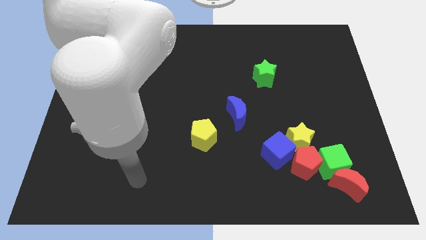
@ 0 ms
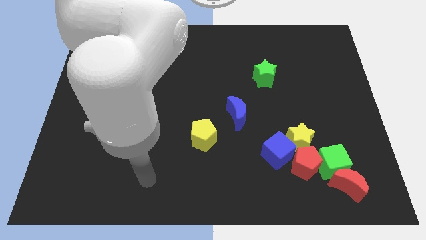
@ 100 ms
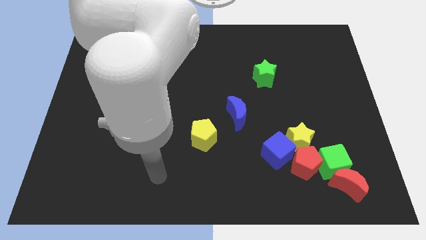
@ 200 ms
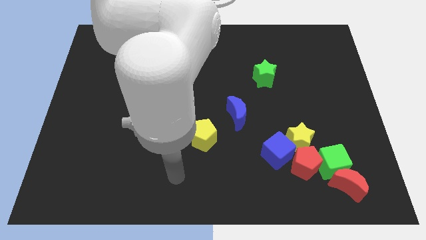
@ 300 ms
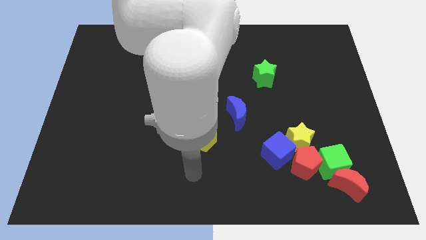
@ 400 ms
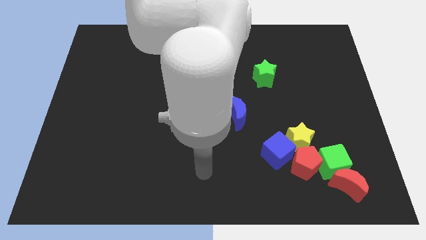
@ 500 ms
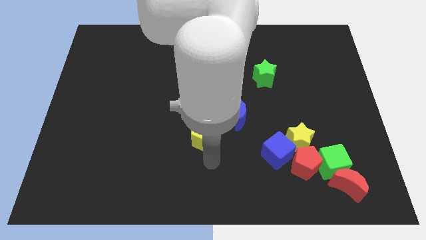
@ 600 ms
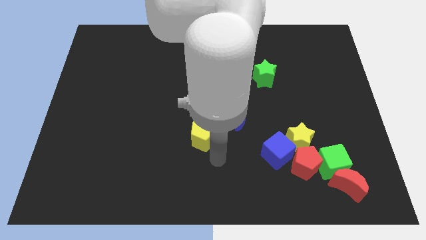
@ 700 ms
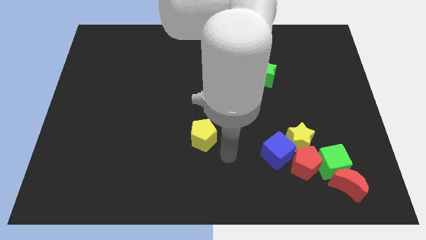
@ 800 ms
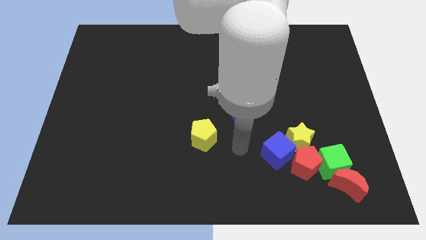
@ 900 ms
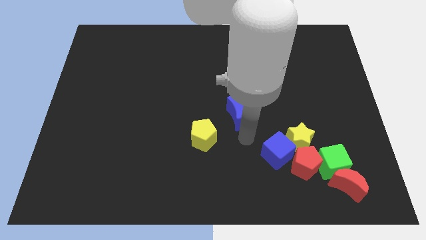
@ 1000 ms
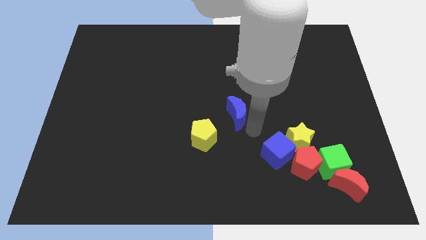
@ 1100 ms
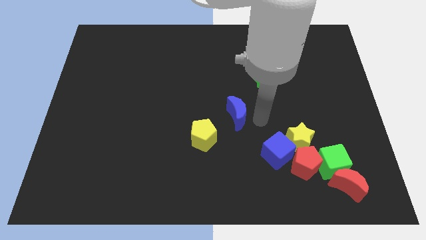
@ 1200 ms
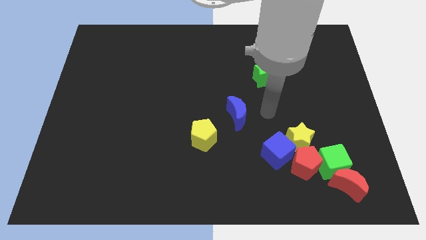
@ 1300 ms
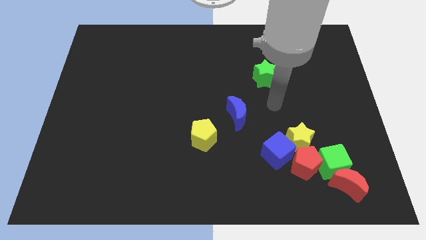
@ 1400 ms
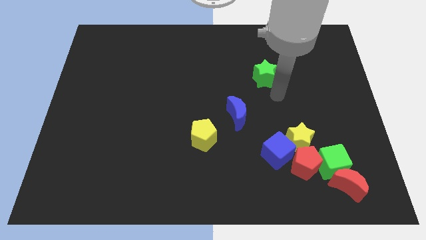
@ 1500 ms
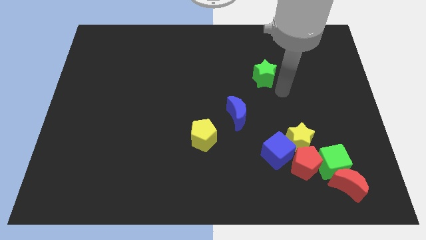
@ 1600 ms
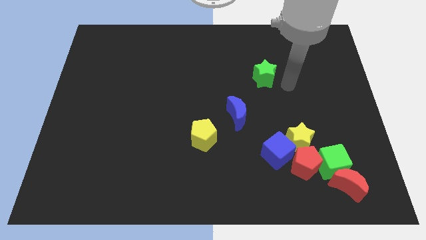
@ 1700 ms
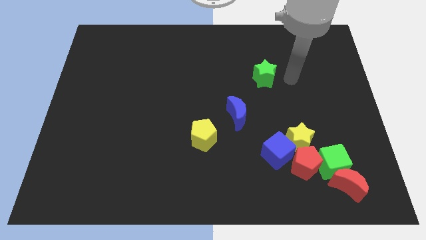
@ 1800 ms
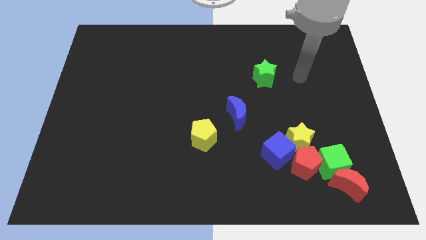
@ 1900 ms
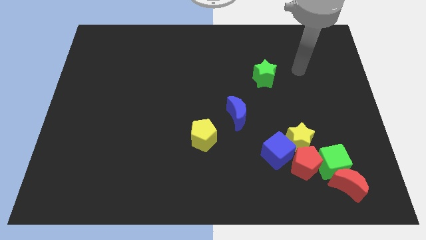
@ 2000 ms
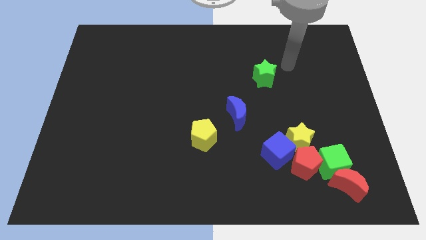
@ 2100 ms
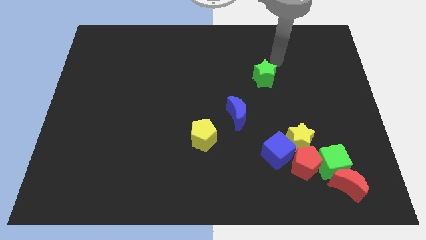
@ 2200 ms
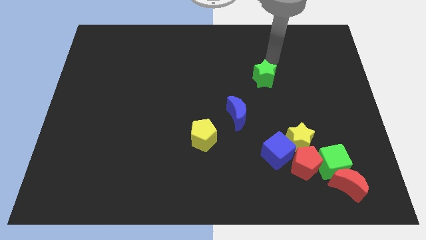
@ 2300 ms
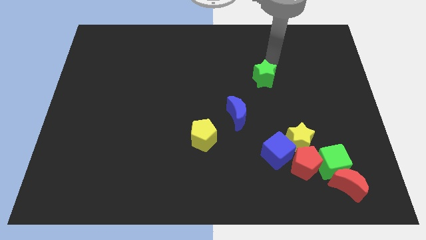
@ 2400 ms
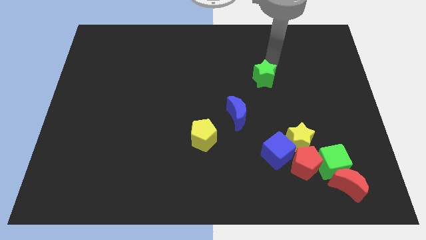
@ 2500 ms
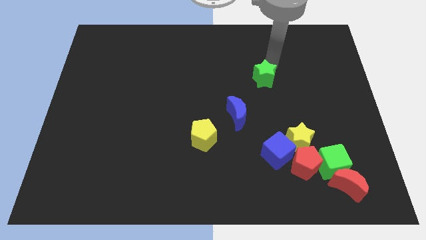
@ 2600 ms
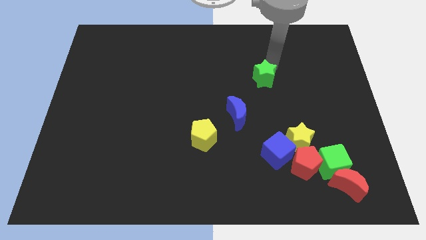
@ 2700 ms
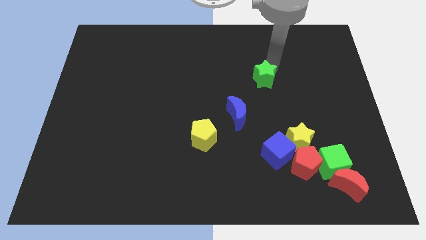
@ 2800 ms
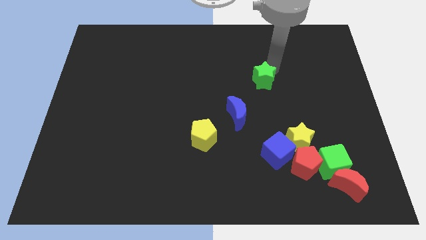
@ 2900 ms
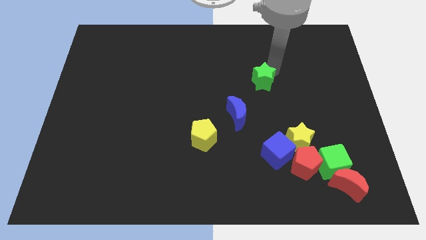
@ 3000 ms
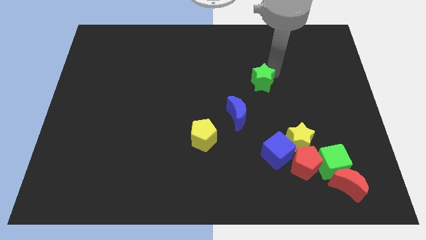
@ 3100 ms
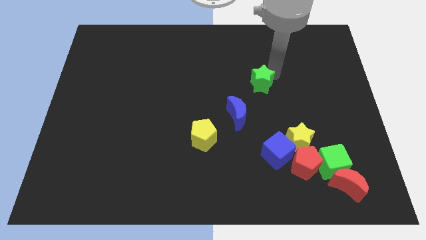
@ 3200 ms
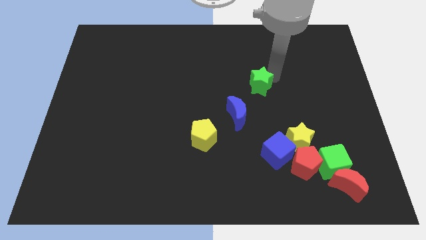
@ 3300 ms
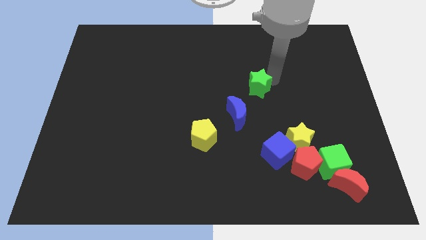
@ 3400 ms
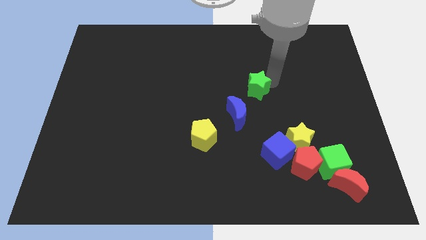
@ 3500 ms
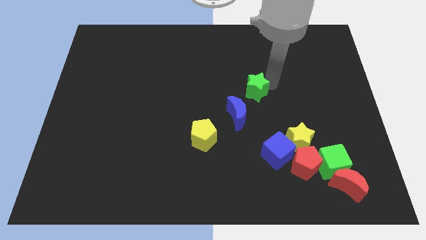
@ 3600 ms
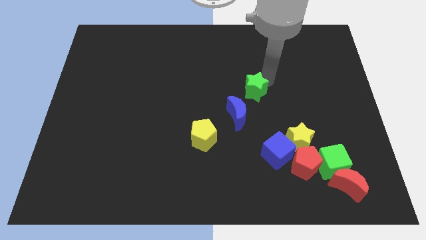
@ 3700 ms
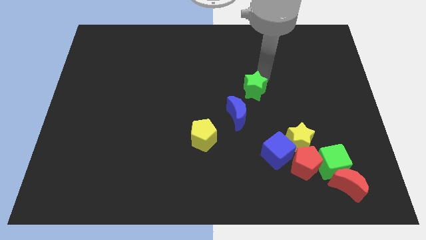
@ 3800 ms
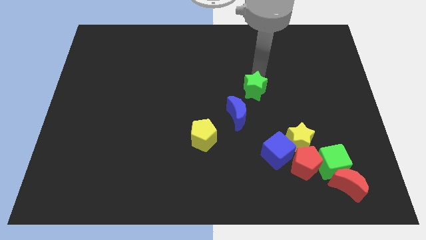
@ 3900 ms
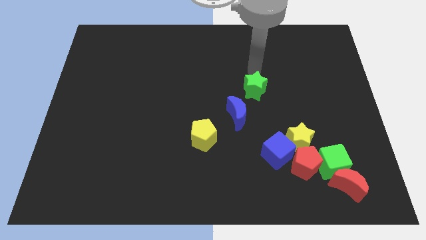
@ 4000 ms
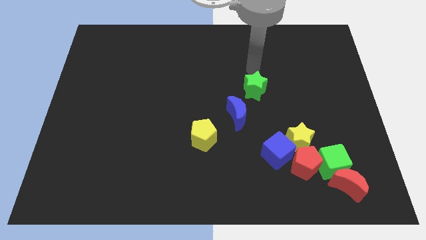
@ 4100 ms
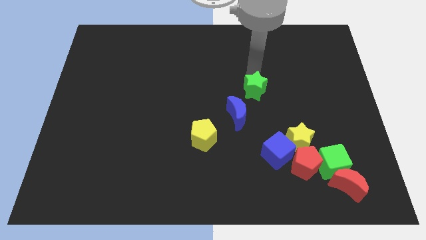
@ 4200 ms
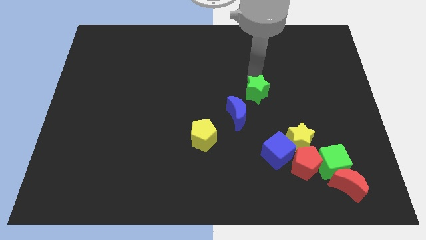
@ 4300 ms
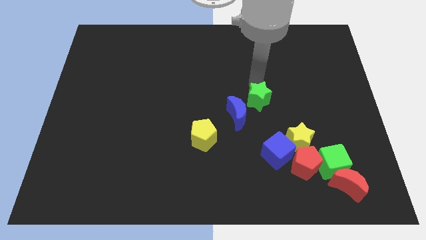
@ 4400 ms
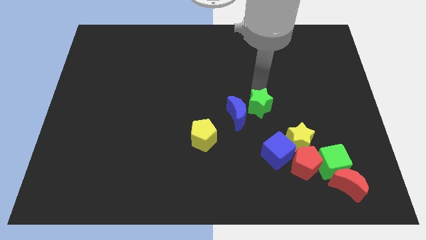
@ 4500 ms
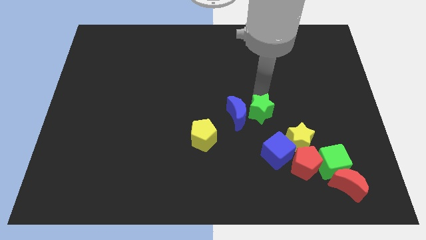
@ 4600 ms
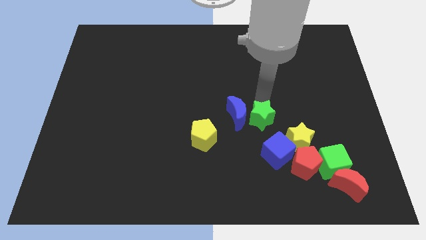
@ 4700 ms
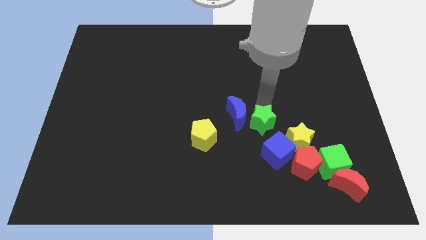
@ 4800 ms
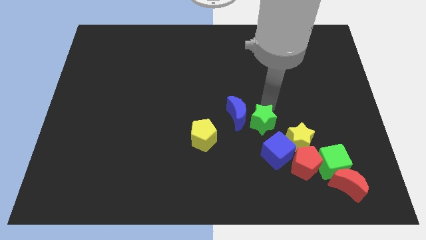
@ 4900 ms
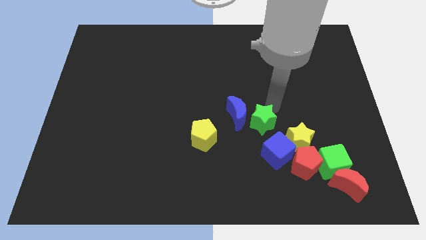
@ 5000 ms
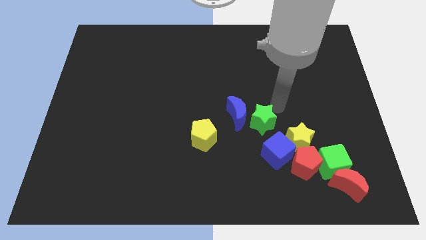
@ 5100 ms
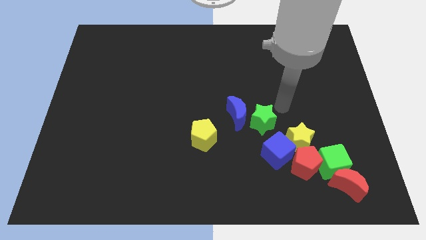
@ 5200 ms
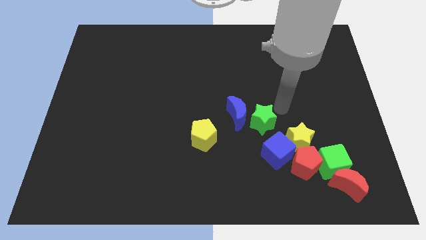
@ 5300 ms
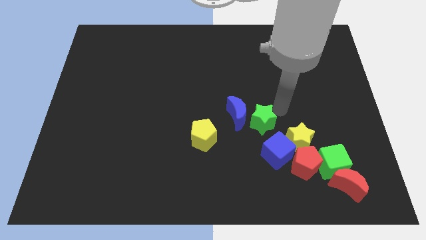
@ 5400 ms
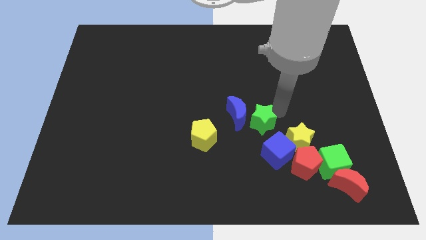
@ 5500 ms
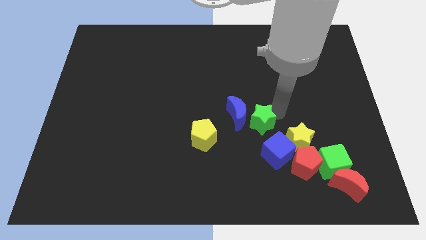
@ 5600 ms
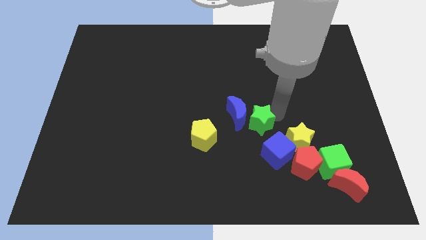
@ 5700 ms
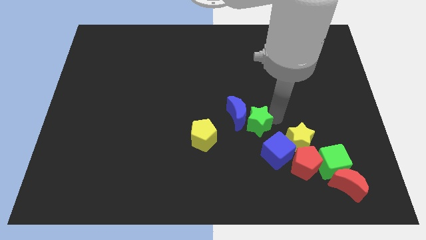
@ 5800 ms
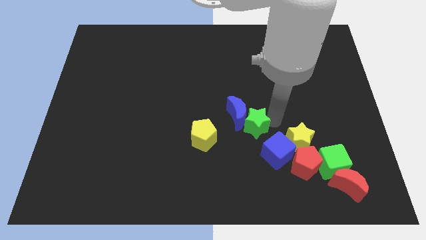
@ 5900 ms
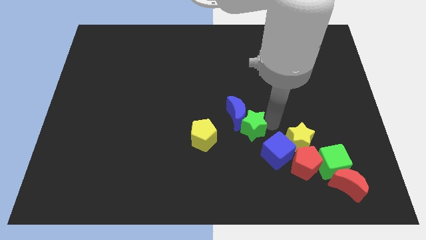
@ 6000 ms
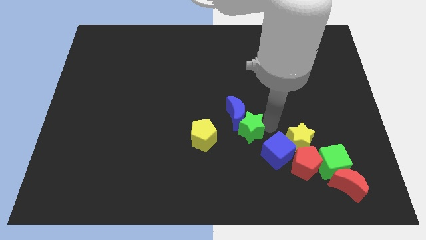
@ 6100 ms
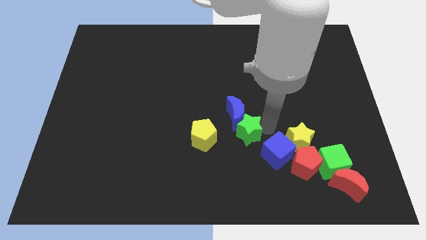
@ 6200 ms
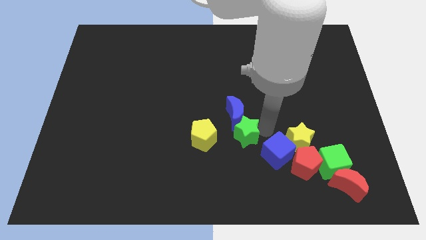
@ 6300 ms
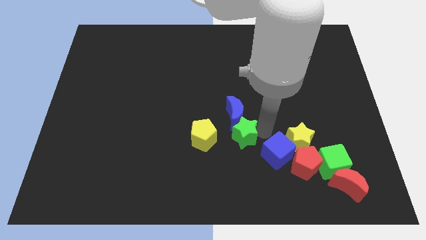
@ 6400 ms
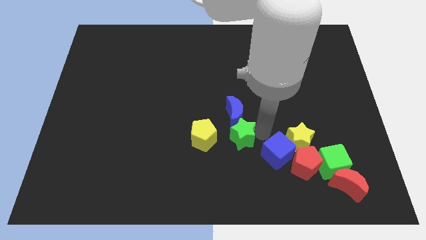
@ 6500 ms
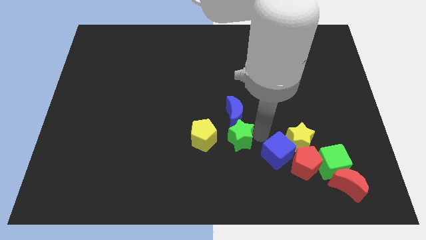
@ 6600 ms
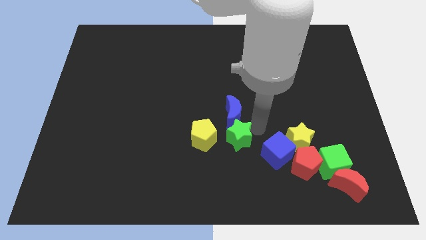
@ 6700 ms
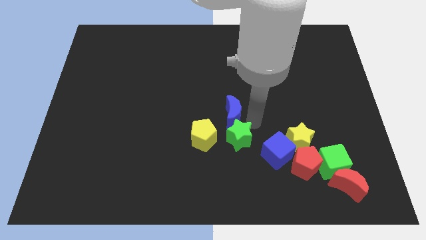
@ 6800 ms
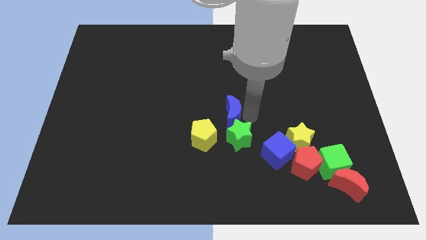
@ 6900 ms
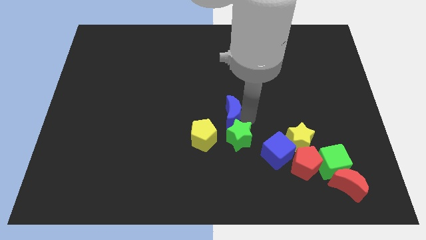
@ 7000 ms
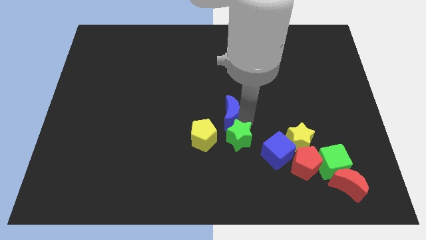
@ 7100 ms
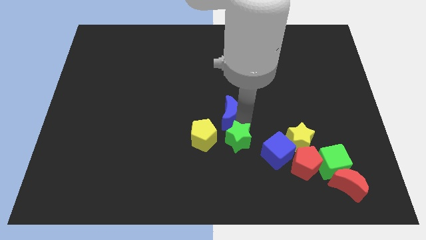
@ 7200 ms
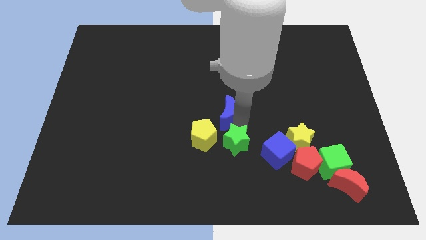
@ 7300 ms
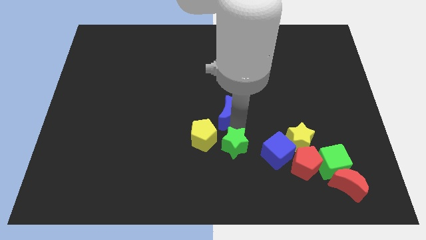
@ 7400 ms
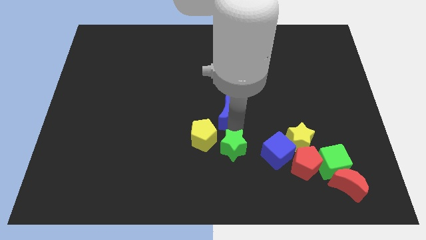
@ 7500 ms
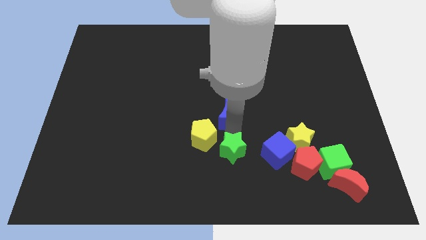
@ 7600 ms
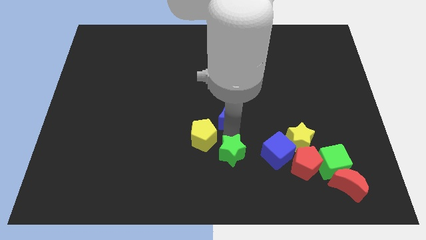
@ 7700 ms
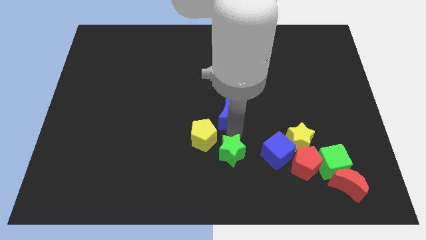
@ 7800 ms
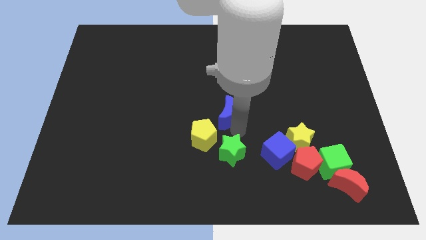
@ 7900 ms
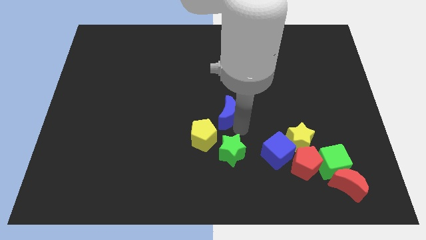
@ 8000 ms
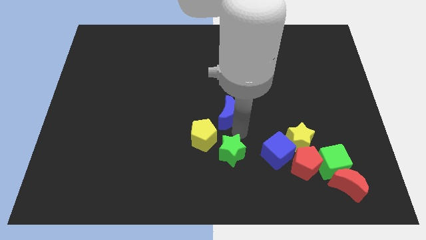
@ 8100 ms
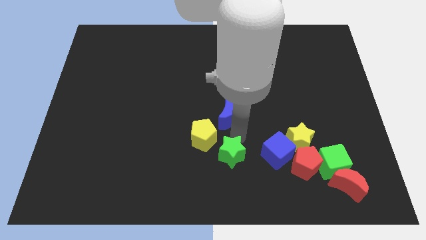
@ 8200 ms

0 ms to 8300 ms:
move the green star to the bottom
